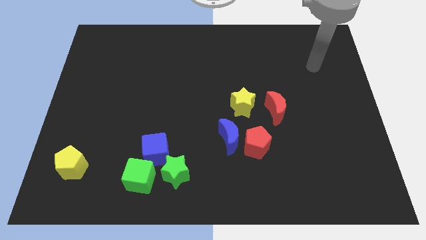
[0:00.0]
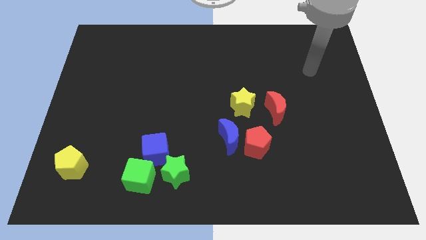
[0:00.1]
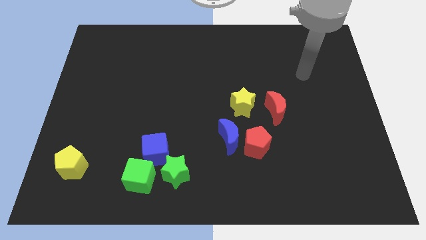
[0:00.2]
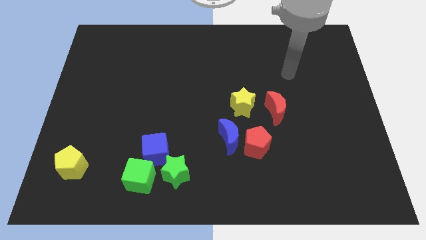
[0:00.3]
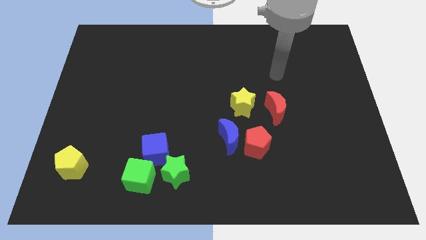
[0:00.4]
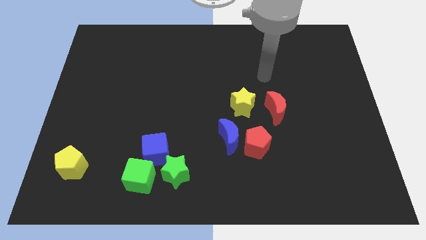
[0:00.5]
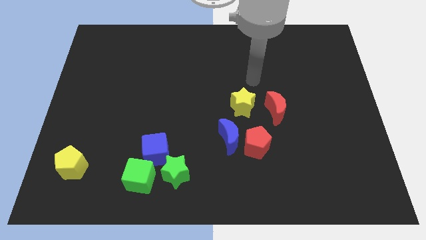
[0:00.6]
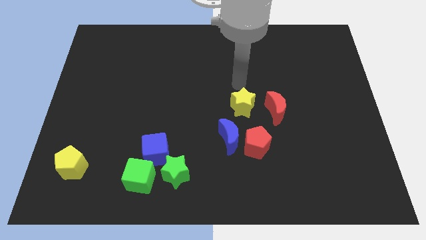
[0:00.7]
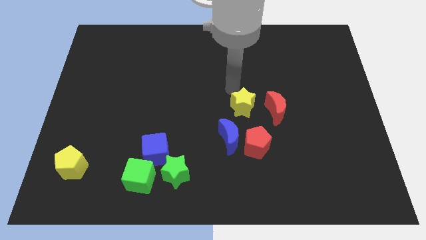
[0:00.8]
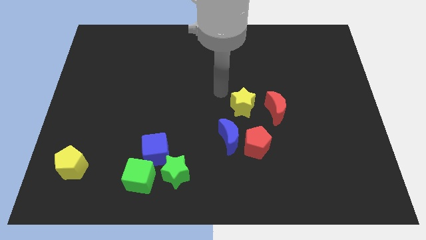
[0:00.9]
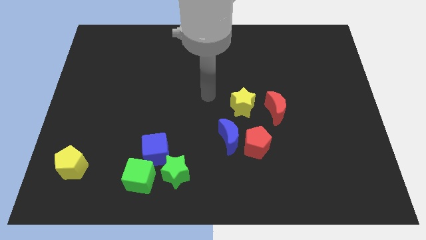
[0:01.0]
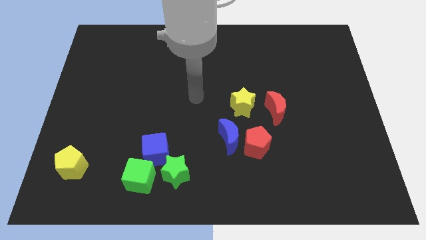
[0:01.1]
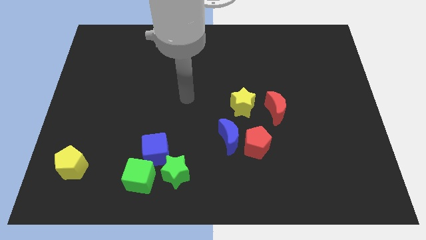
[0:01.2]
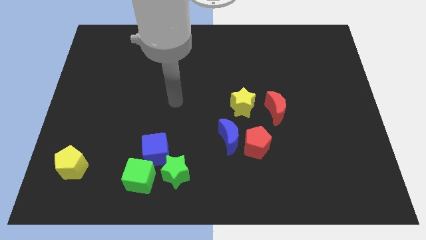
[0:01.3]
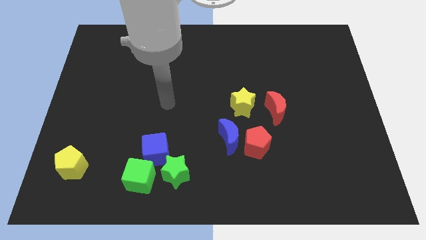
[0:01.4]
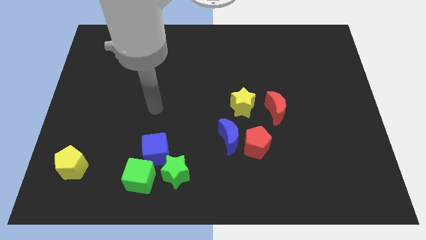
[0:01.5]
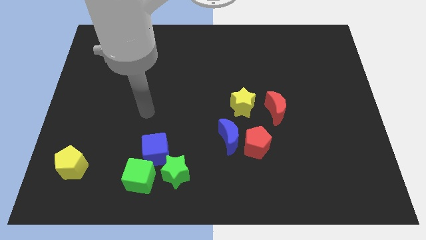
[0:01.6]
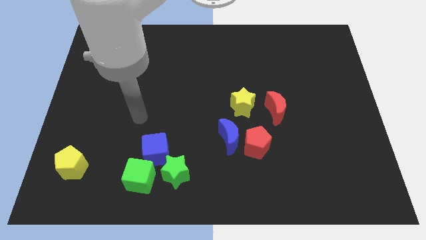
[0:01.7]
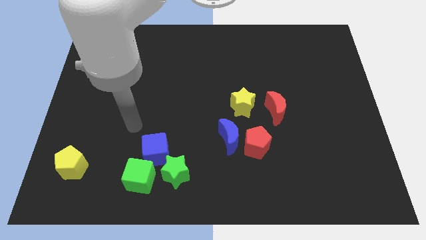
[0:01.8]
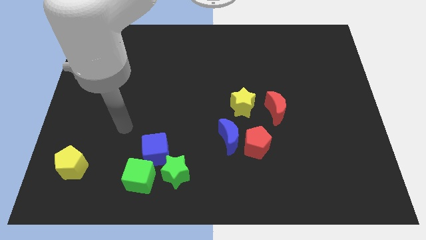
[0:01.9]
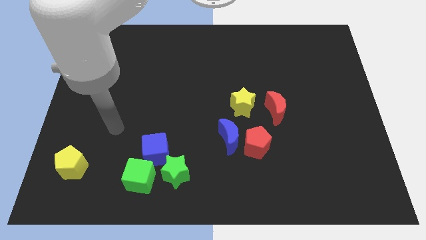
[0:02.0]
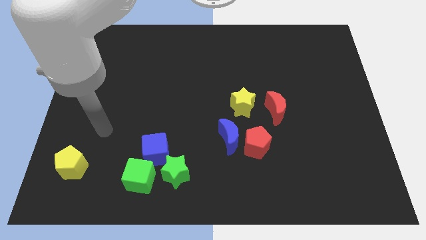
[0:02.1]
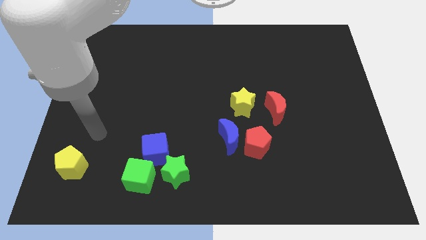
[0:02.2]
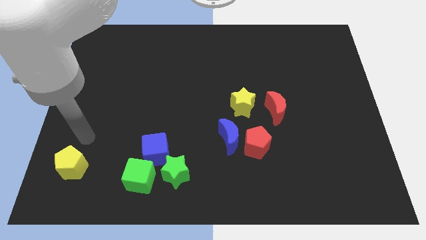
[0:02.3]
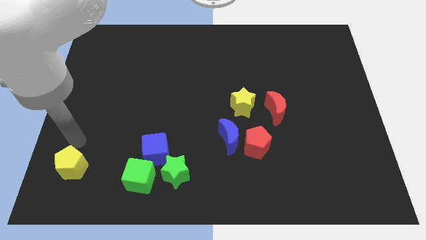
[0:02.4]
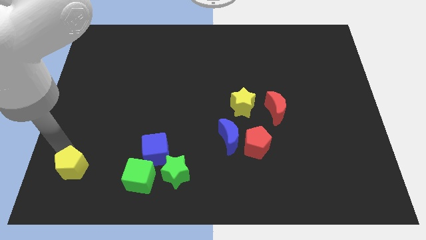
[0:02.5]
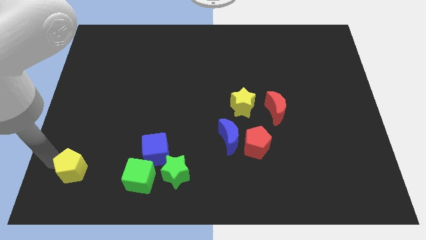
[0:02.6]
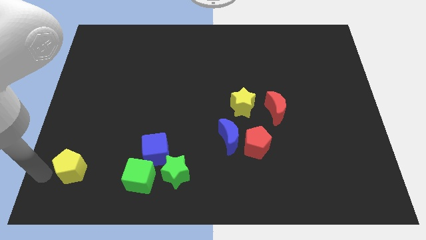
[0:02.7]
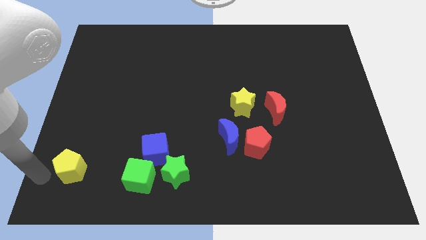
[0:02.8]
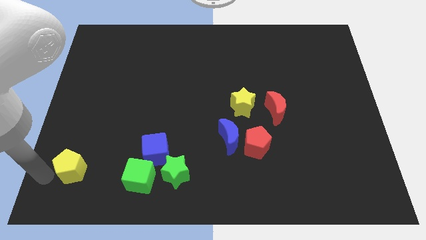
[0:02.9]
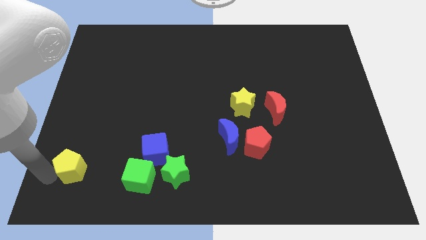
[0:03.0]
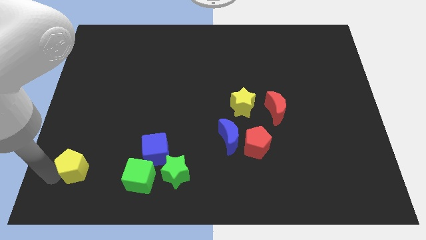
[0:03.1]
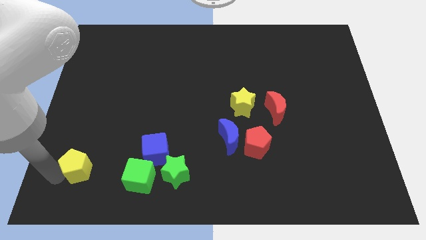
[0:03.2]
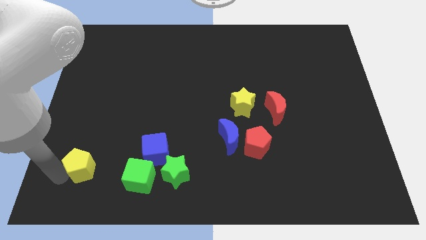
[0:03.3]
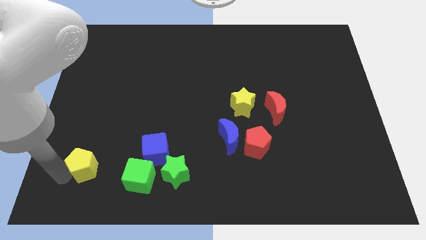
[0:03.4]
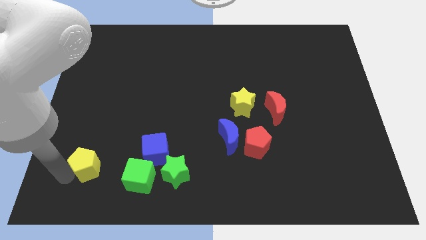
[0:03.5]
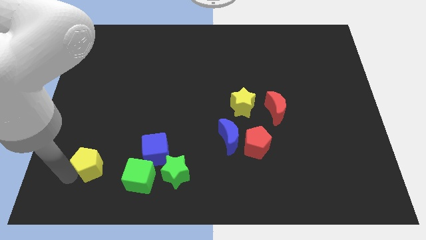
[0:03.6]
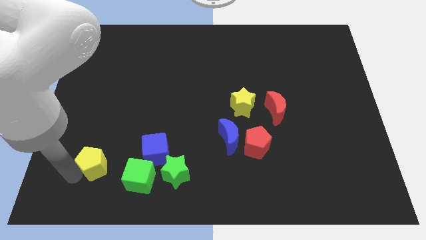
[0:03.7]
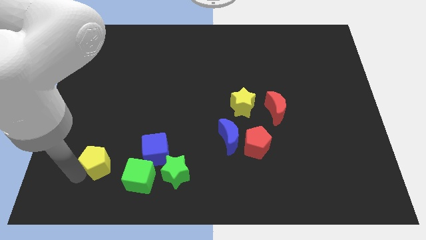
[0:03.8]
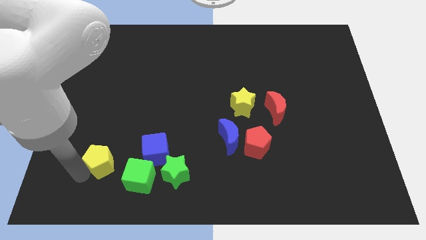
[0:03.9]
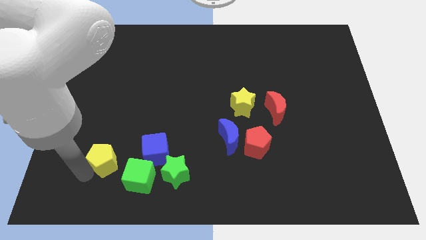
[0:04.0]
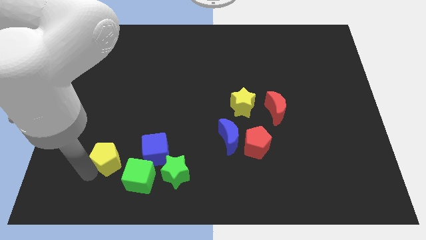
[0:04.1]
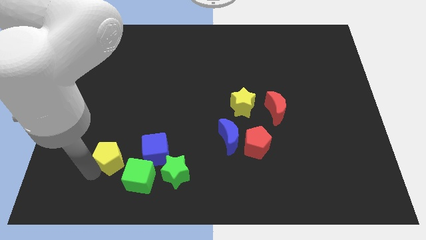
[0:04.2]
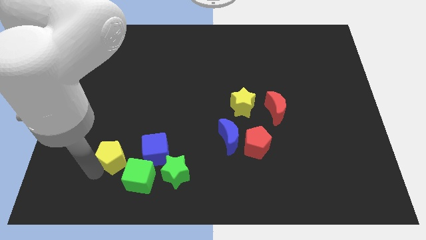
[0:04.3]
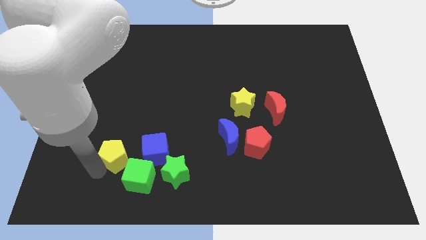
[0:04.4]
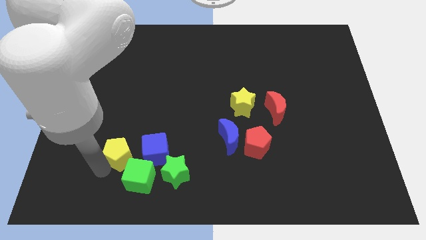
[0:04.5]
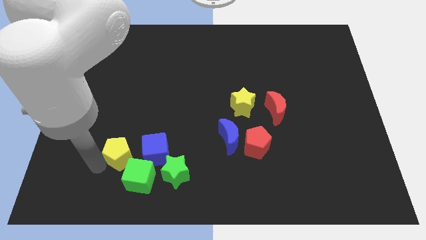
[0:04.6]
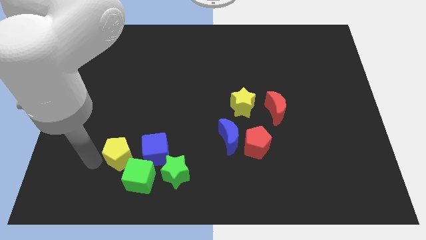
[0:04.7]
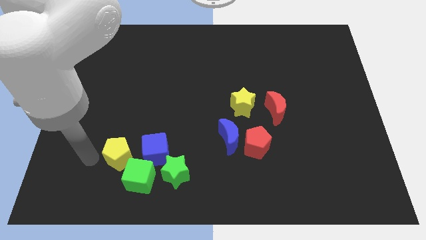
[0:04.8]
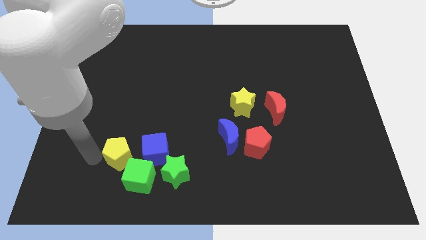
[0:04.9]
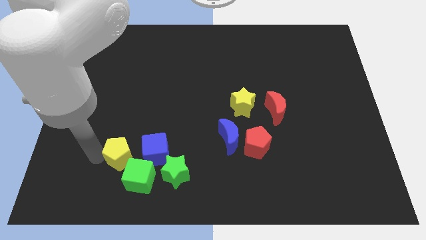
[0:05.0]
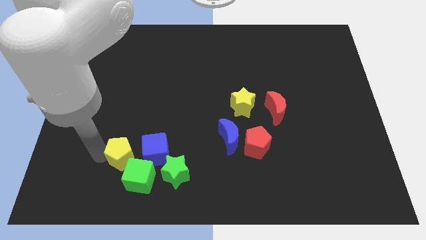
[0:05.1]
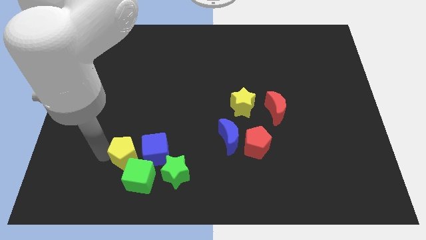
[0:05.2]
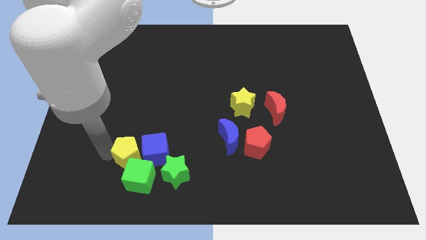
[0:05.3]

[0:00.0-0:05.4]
move the yellow pentagon close to the blue cube

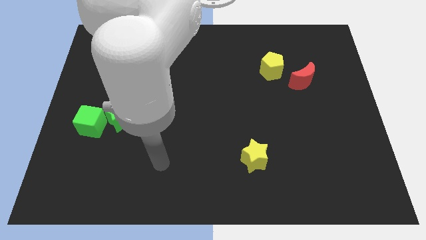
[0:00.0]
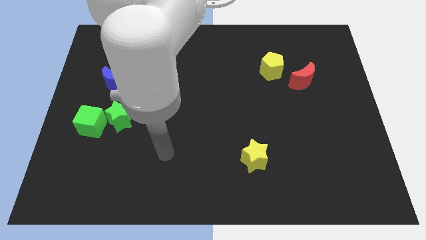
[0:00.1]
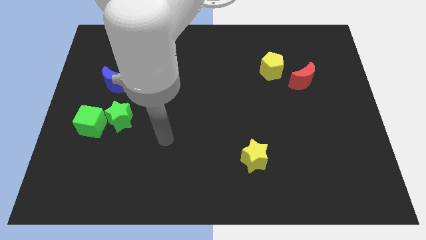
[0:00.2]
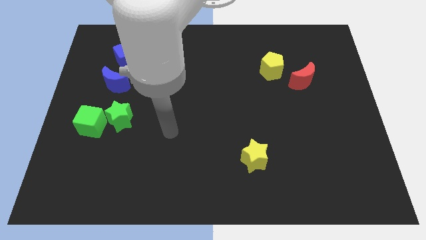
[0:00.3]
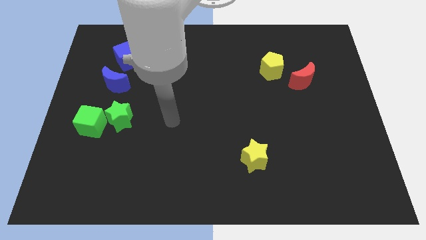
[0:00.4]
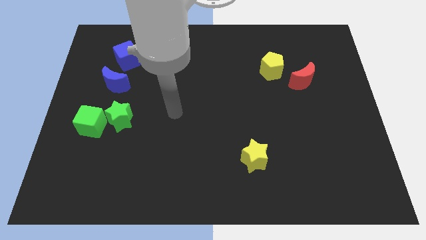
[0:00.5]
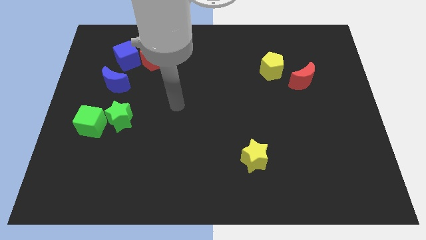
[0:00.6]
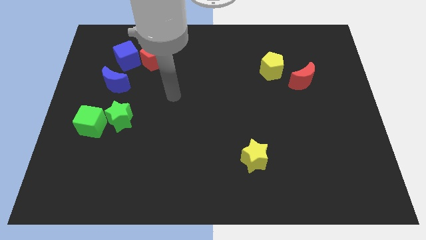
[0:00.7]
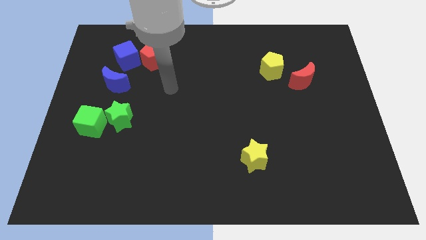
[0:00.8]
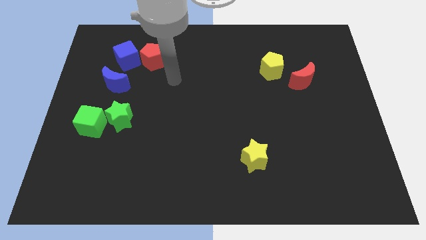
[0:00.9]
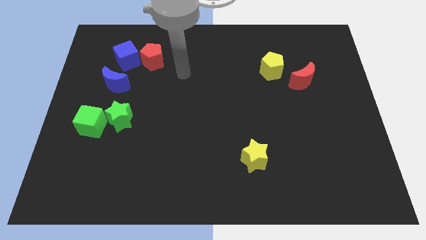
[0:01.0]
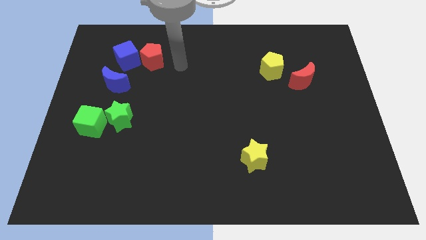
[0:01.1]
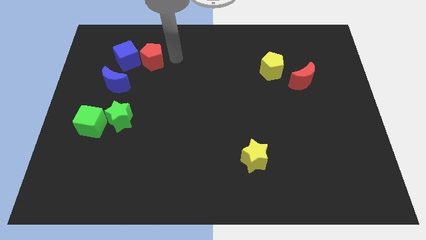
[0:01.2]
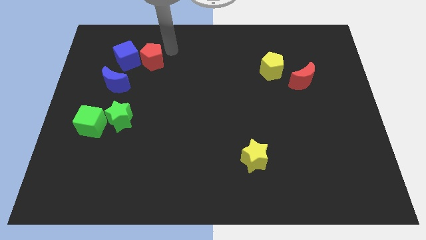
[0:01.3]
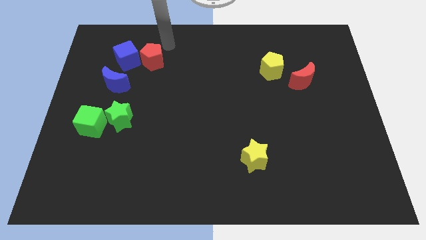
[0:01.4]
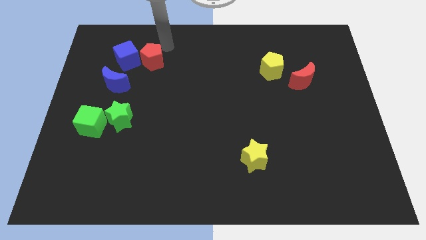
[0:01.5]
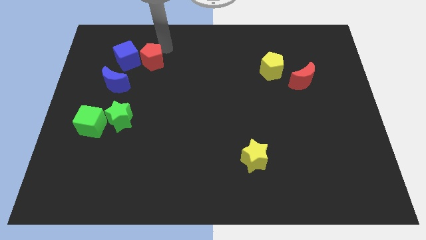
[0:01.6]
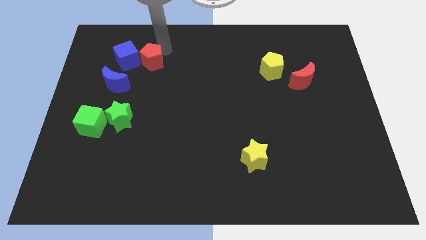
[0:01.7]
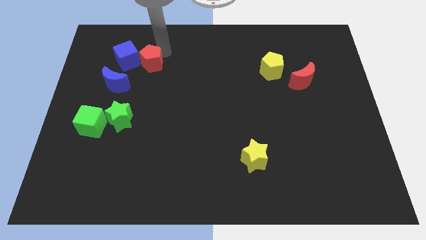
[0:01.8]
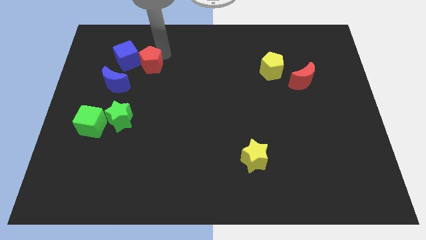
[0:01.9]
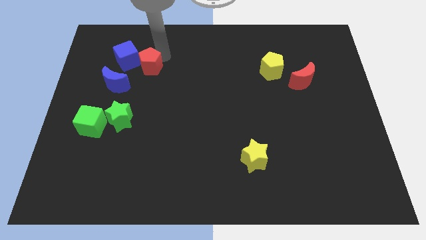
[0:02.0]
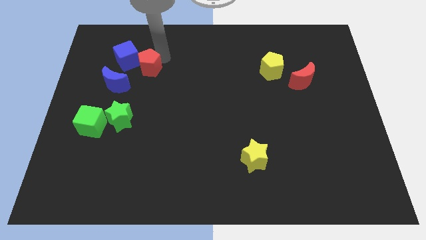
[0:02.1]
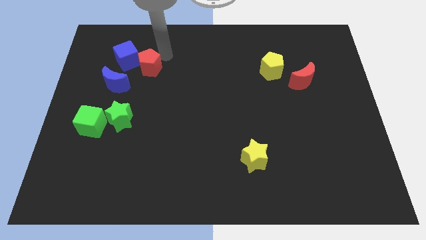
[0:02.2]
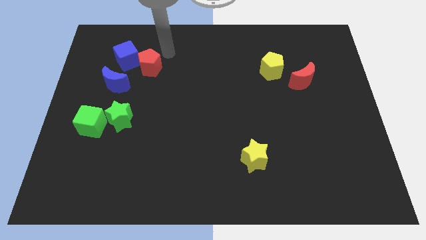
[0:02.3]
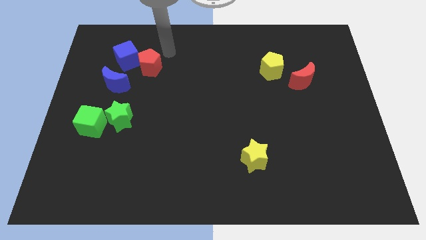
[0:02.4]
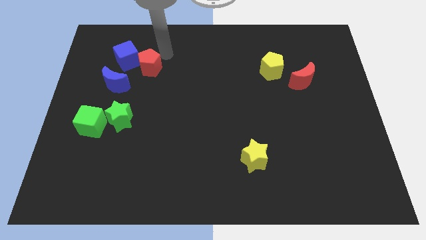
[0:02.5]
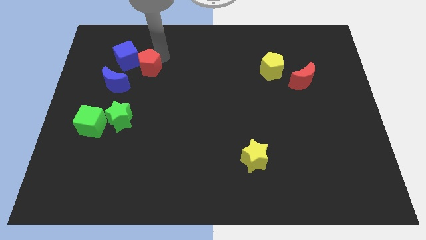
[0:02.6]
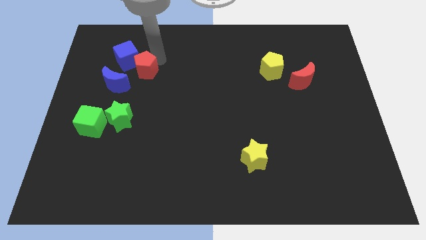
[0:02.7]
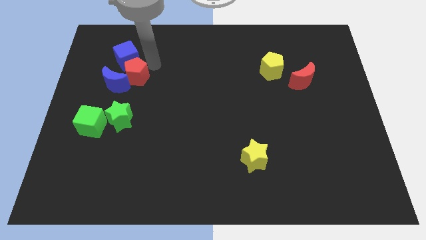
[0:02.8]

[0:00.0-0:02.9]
slide the red pentagon next to the blue moon
